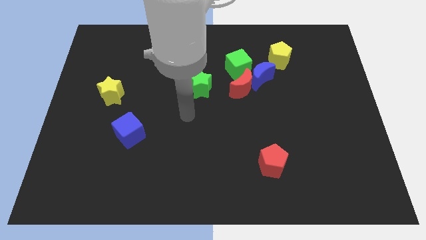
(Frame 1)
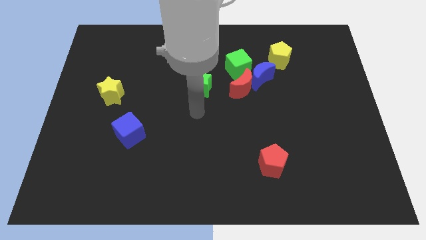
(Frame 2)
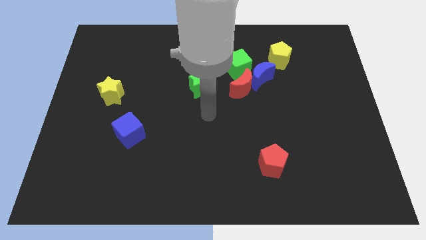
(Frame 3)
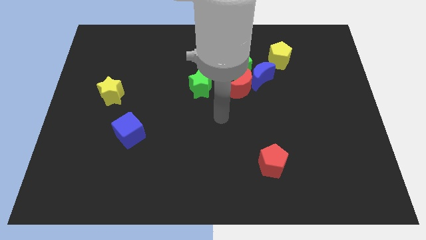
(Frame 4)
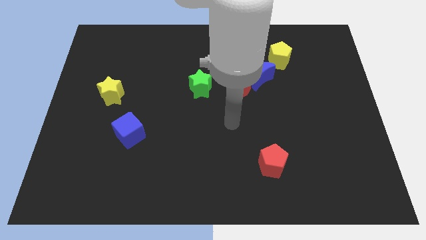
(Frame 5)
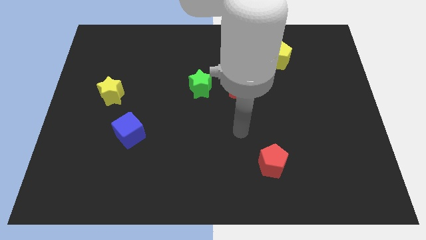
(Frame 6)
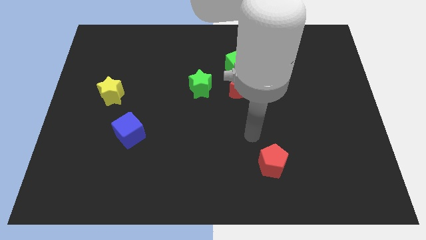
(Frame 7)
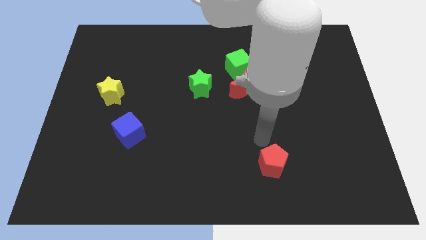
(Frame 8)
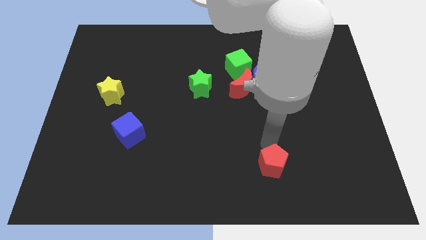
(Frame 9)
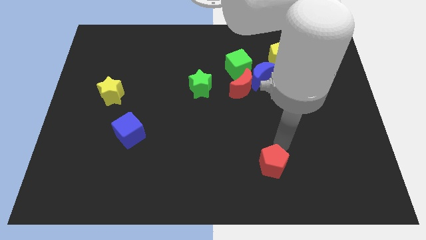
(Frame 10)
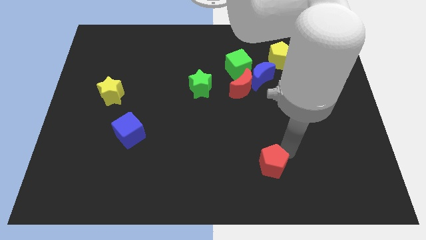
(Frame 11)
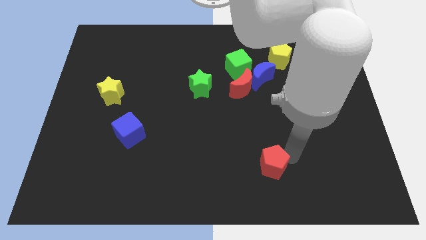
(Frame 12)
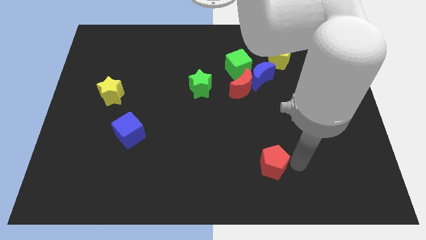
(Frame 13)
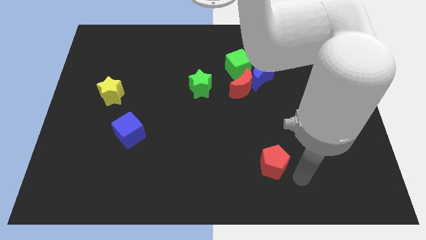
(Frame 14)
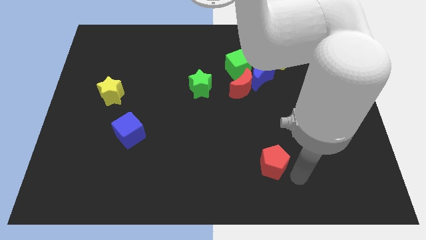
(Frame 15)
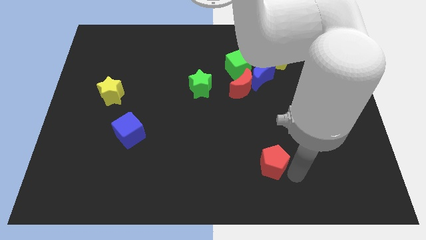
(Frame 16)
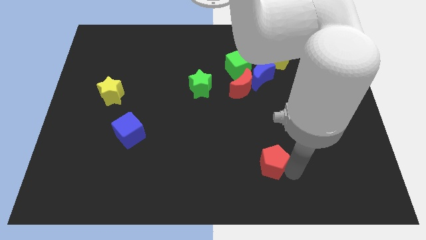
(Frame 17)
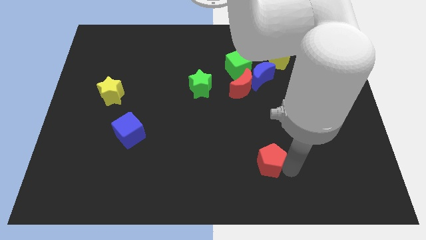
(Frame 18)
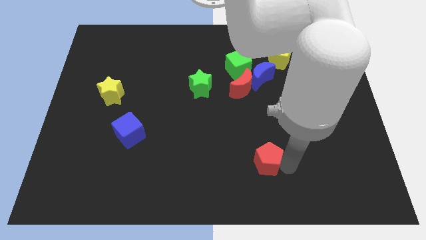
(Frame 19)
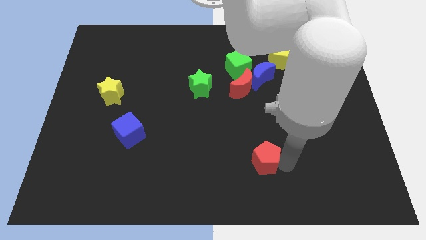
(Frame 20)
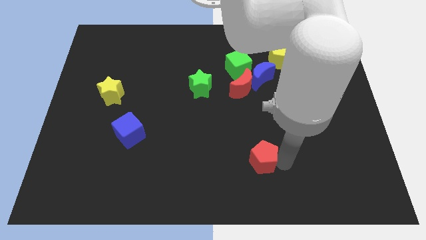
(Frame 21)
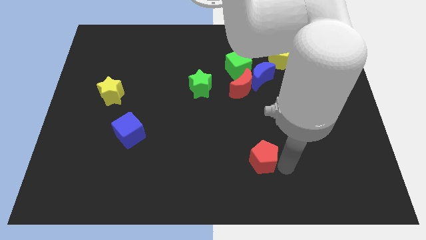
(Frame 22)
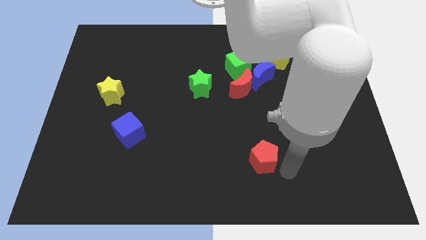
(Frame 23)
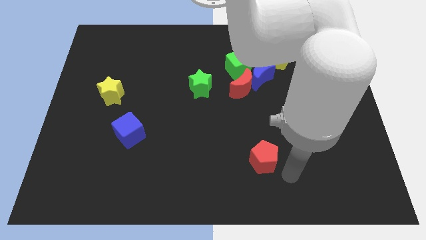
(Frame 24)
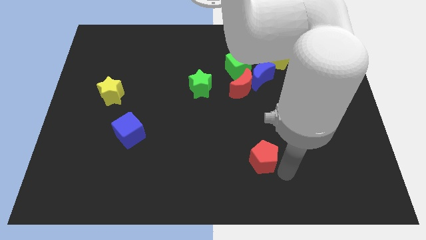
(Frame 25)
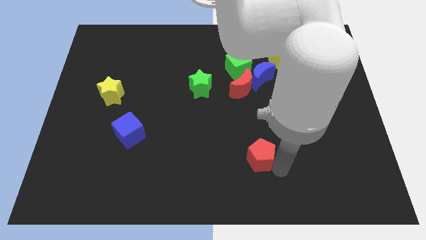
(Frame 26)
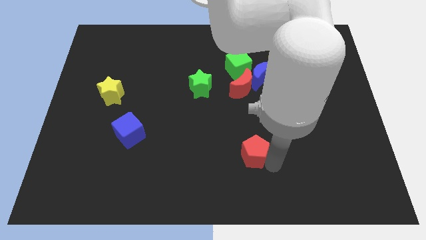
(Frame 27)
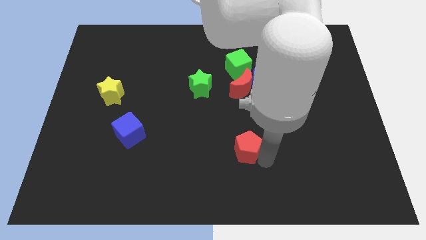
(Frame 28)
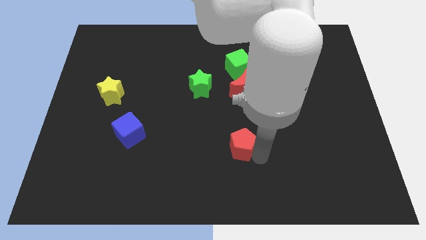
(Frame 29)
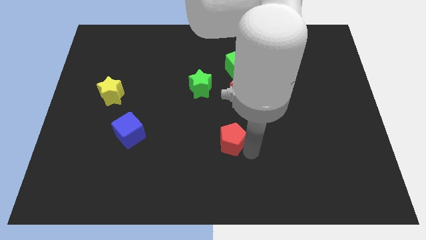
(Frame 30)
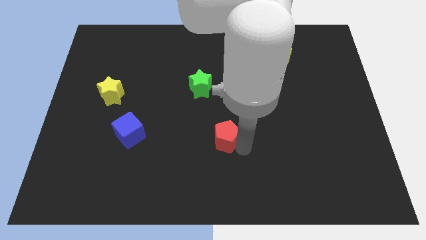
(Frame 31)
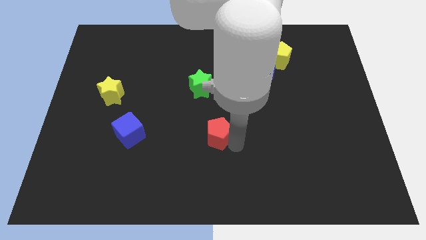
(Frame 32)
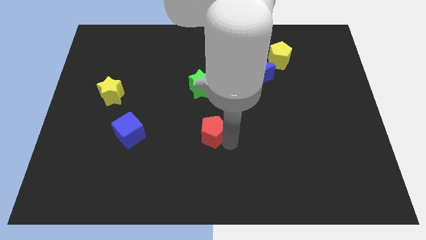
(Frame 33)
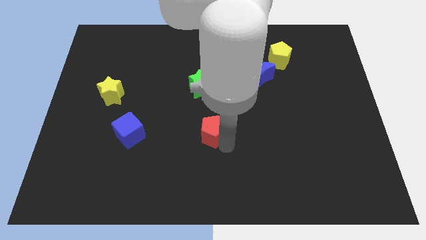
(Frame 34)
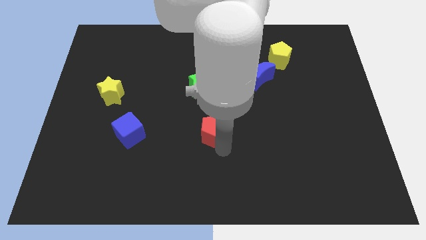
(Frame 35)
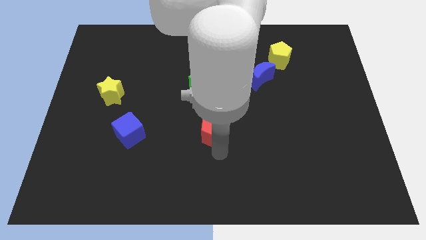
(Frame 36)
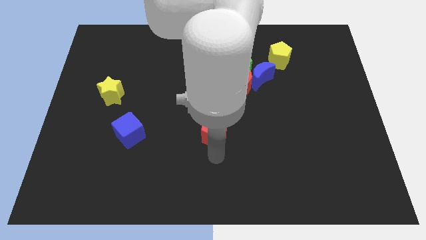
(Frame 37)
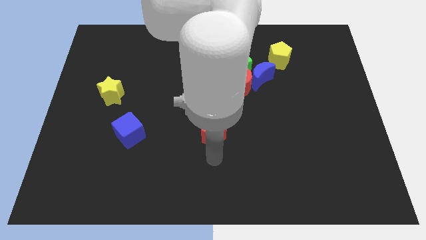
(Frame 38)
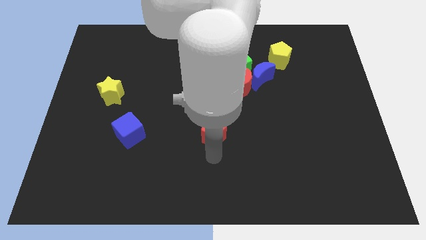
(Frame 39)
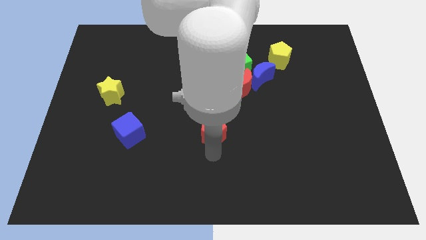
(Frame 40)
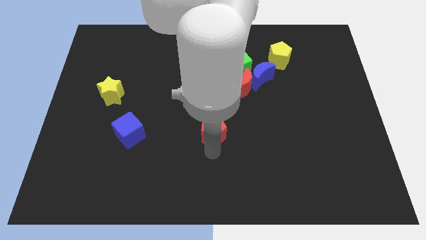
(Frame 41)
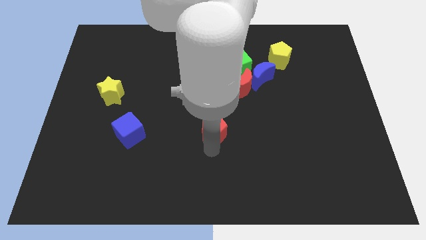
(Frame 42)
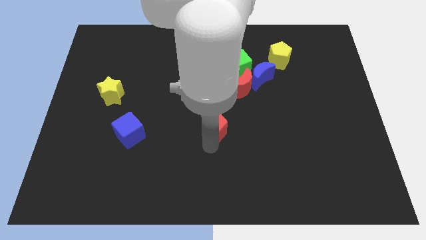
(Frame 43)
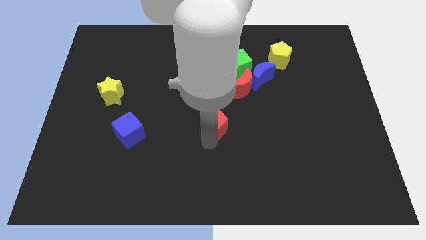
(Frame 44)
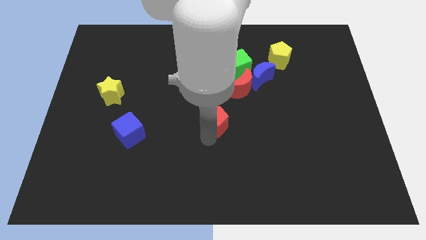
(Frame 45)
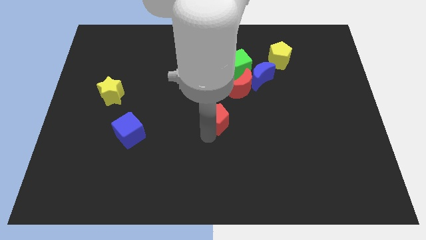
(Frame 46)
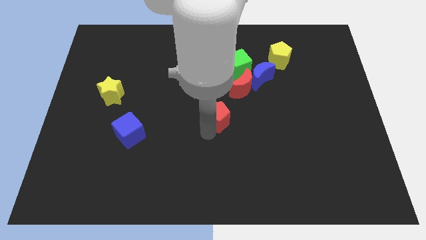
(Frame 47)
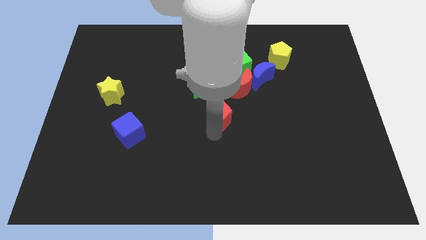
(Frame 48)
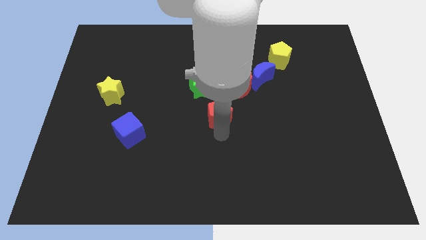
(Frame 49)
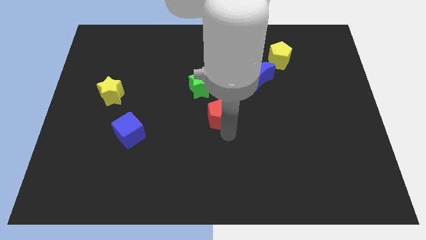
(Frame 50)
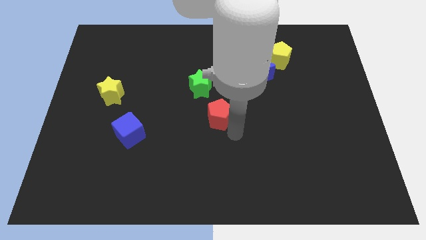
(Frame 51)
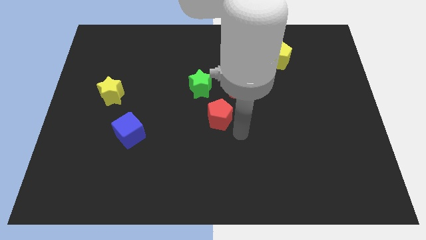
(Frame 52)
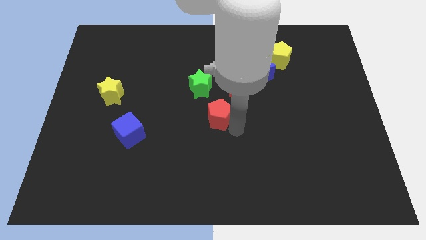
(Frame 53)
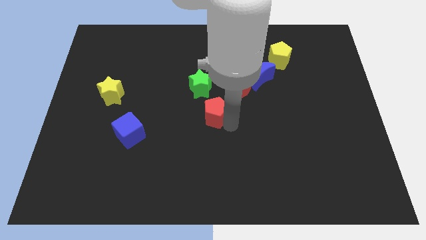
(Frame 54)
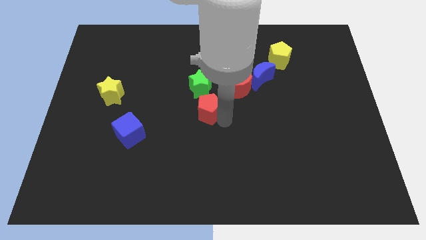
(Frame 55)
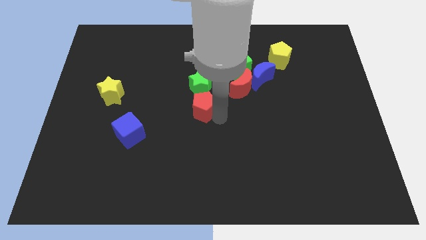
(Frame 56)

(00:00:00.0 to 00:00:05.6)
slide the red pentagon diagonally upwards and to the left

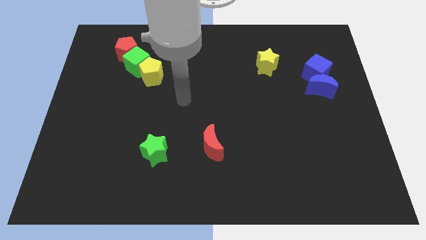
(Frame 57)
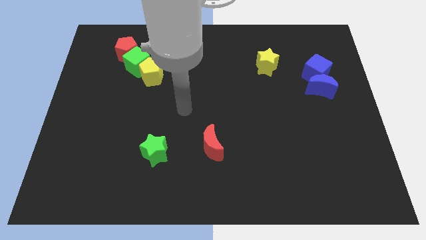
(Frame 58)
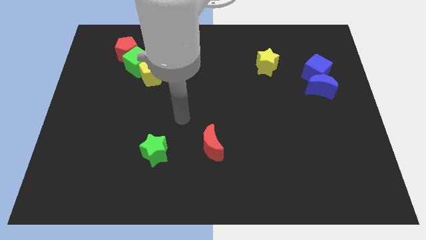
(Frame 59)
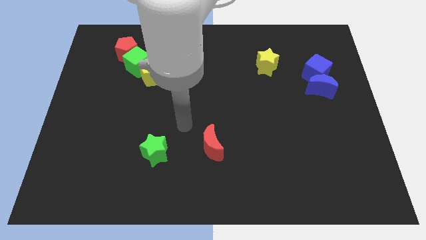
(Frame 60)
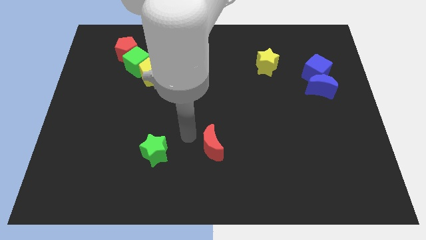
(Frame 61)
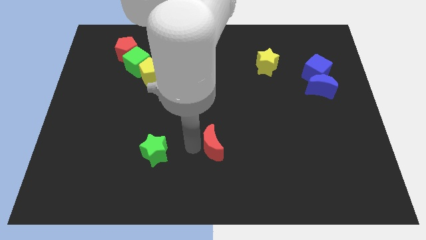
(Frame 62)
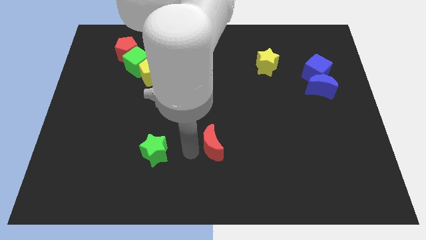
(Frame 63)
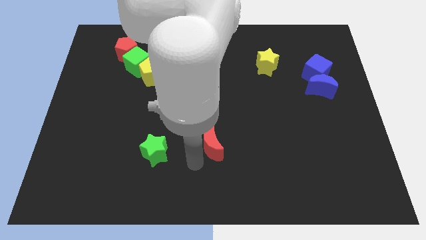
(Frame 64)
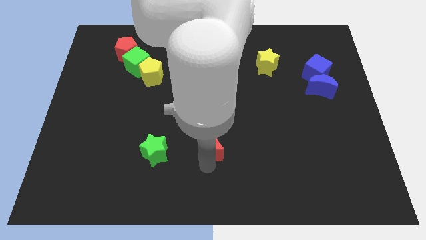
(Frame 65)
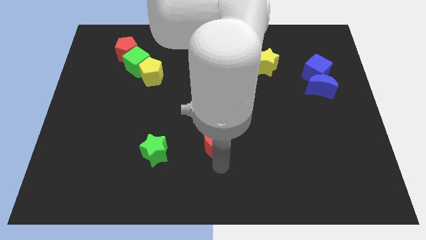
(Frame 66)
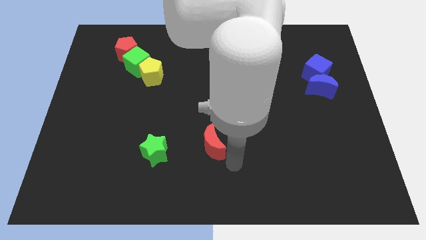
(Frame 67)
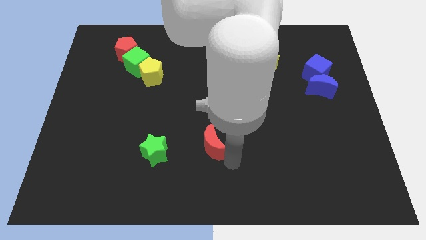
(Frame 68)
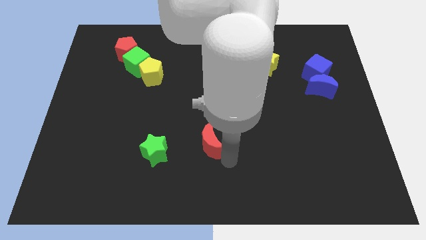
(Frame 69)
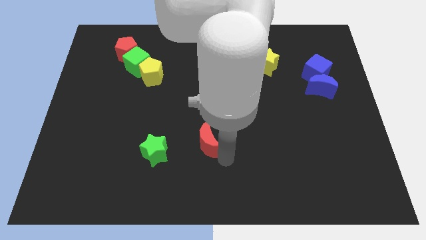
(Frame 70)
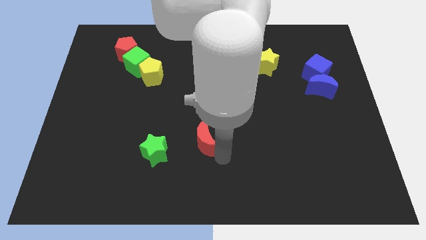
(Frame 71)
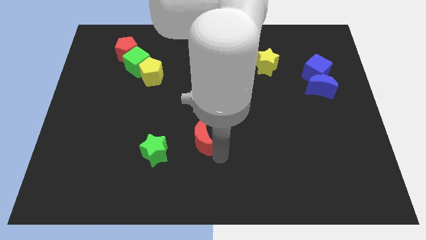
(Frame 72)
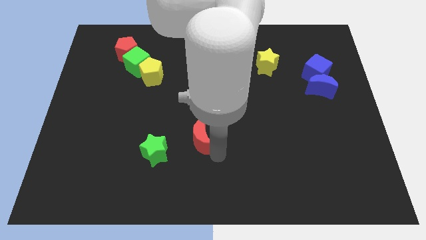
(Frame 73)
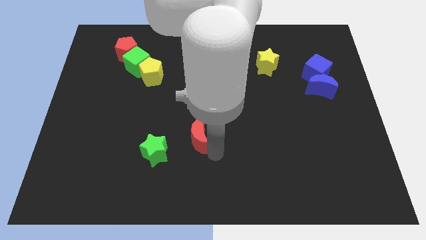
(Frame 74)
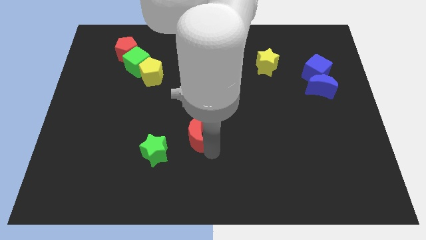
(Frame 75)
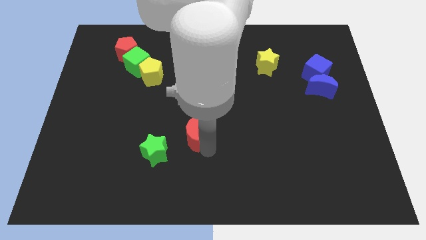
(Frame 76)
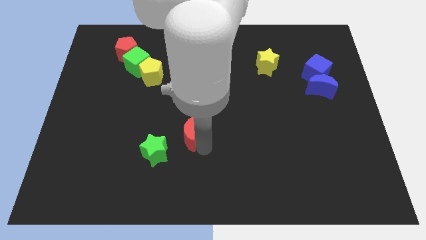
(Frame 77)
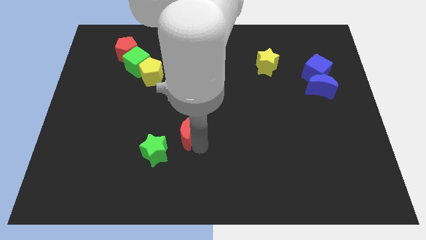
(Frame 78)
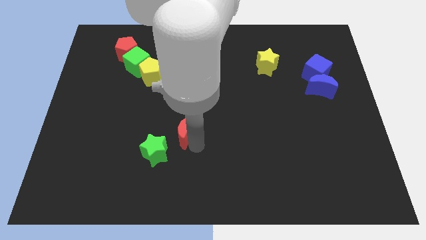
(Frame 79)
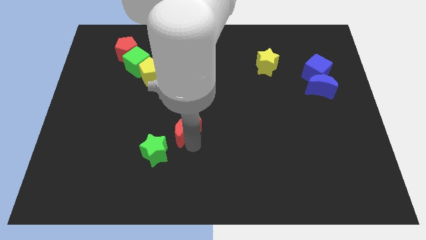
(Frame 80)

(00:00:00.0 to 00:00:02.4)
push the red moon somewhat diagonally up and left
